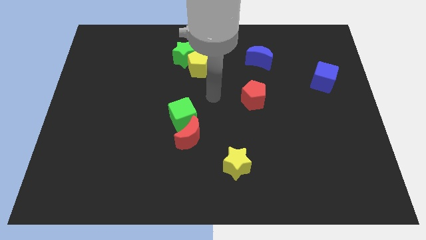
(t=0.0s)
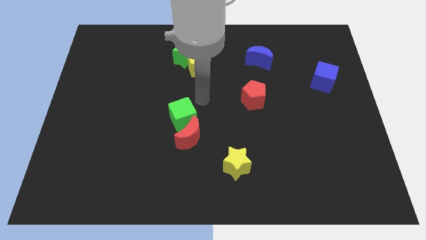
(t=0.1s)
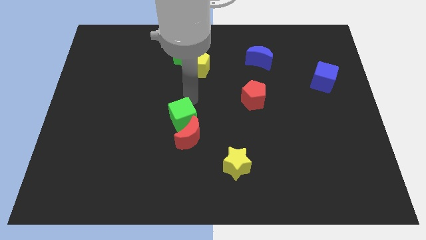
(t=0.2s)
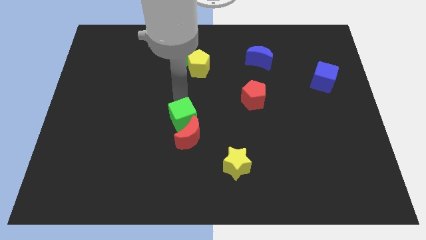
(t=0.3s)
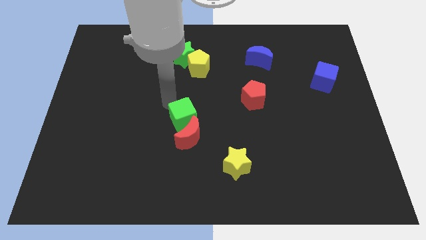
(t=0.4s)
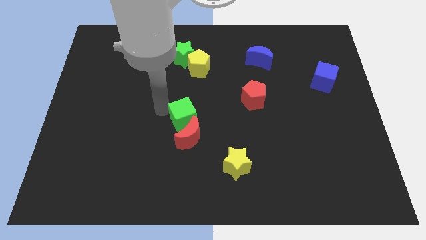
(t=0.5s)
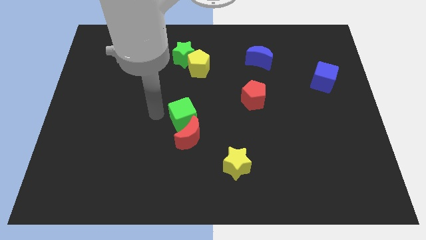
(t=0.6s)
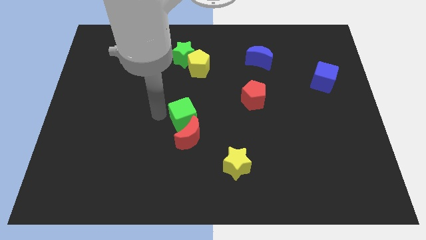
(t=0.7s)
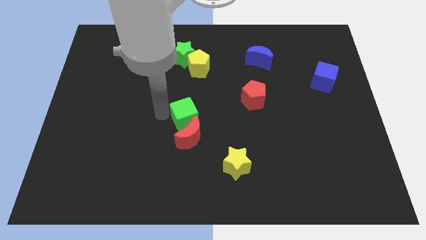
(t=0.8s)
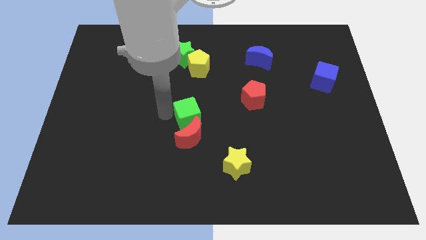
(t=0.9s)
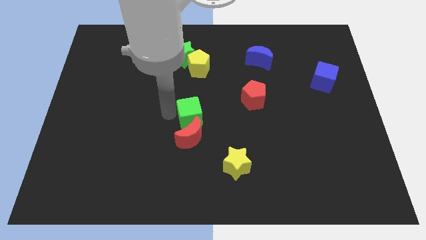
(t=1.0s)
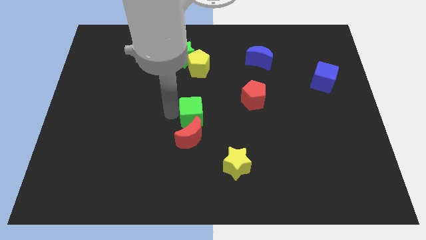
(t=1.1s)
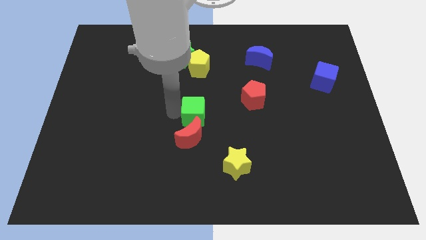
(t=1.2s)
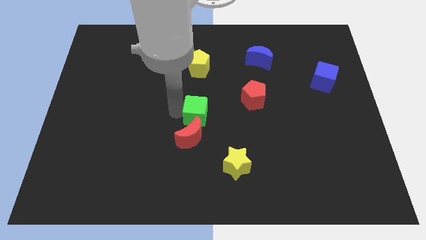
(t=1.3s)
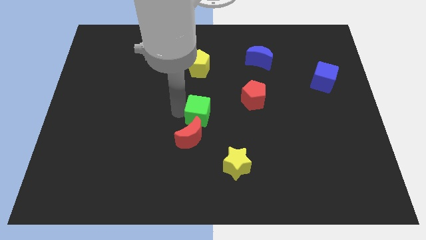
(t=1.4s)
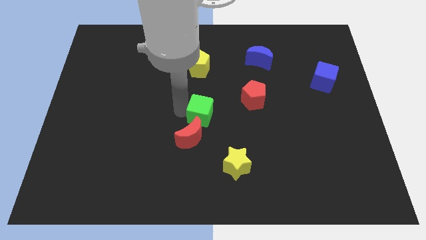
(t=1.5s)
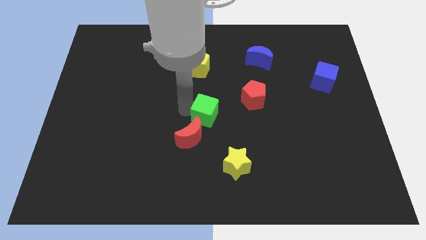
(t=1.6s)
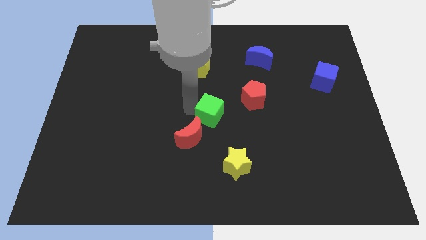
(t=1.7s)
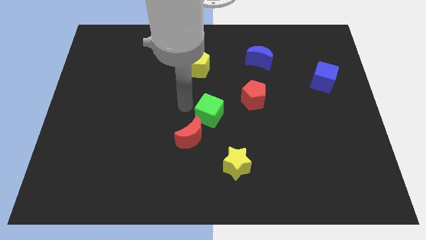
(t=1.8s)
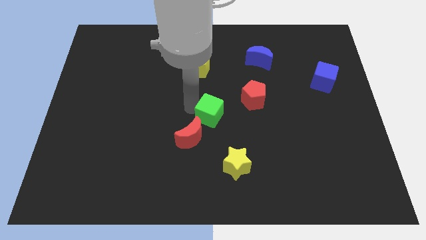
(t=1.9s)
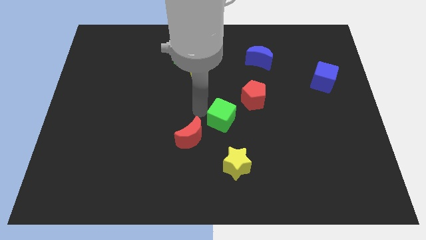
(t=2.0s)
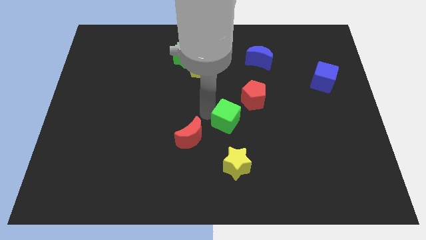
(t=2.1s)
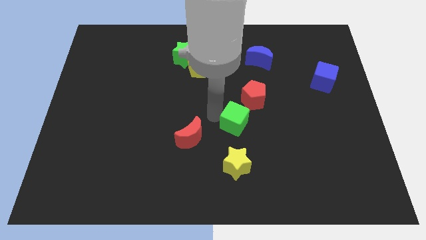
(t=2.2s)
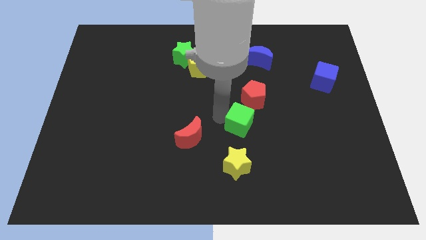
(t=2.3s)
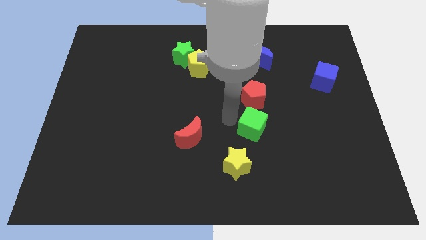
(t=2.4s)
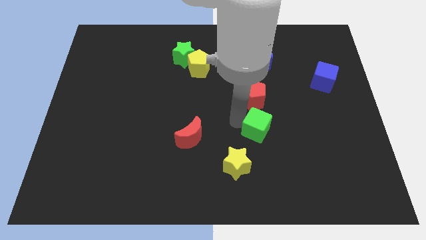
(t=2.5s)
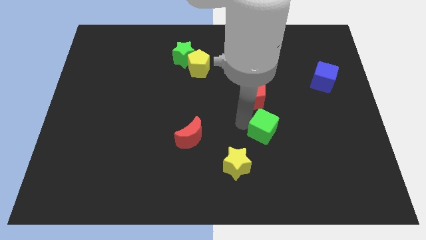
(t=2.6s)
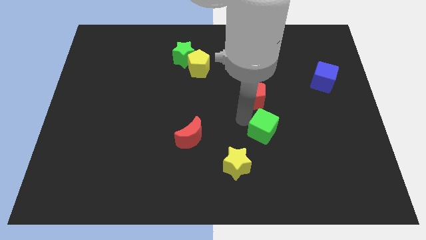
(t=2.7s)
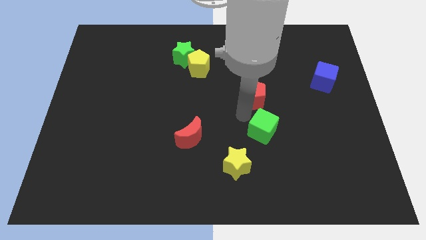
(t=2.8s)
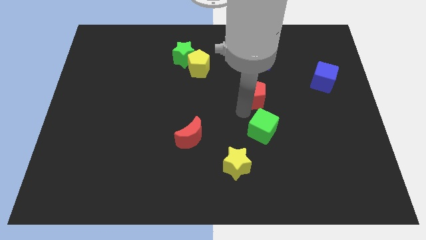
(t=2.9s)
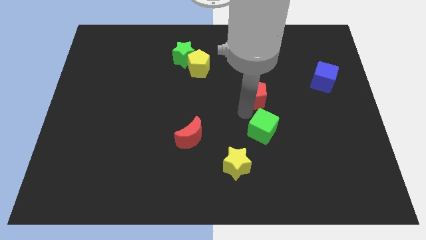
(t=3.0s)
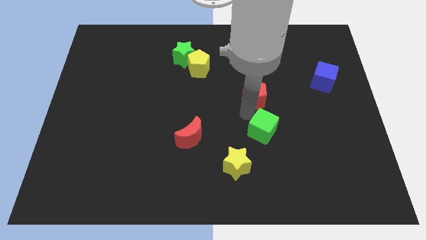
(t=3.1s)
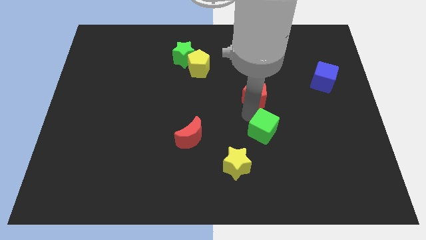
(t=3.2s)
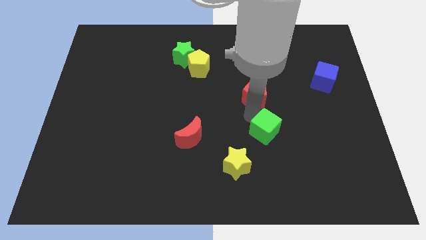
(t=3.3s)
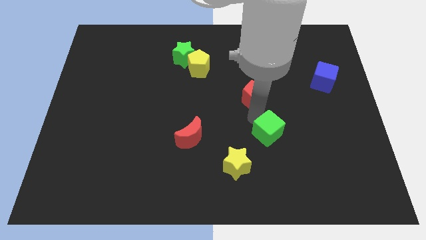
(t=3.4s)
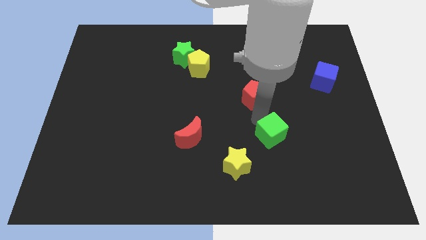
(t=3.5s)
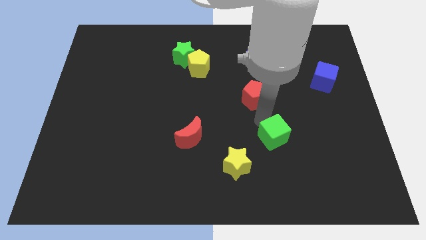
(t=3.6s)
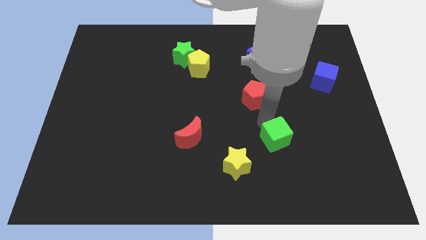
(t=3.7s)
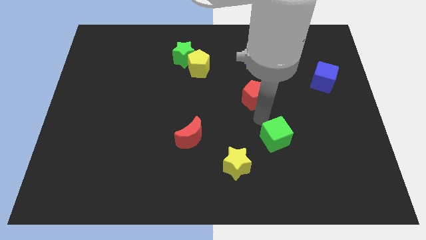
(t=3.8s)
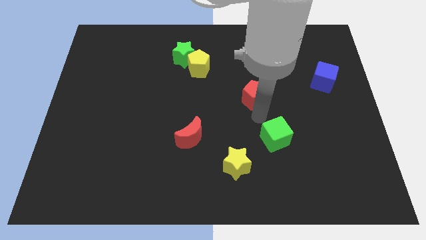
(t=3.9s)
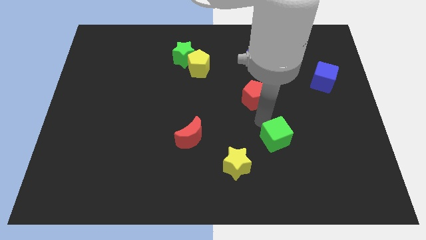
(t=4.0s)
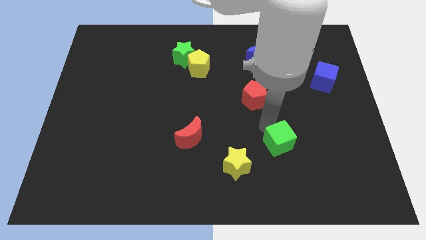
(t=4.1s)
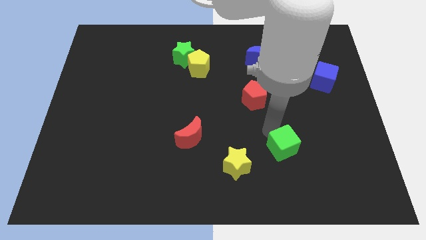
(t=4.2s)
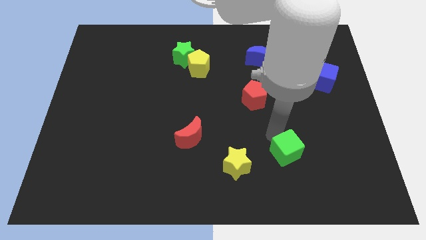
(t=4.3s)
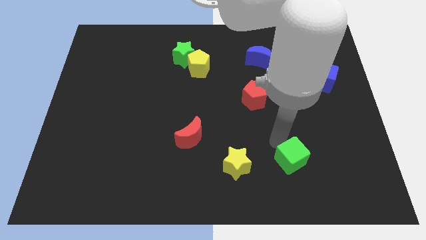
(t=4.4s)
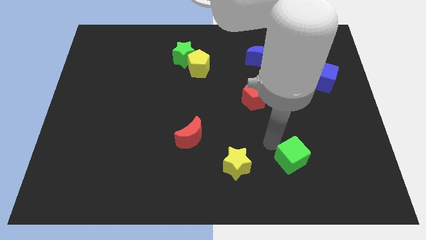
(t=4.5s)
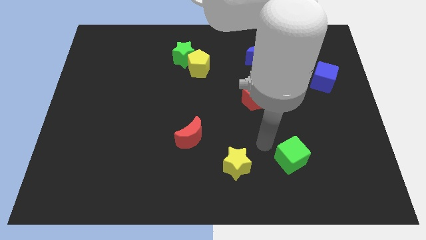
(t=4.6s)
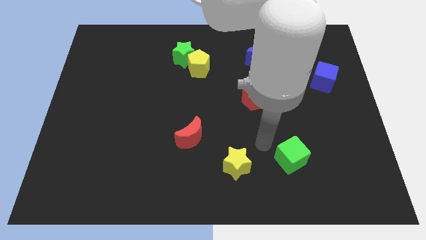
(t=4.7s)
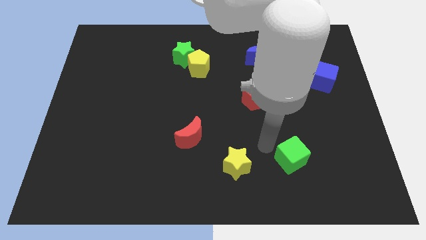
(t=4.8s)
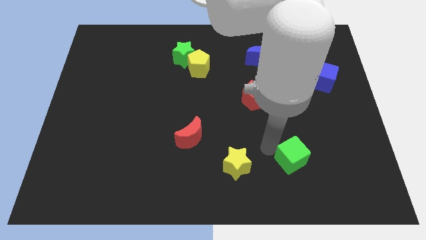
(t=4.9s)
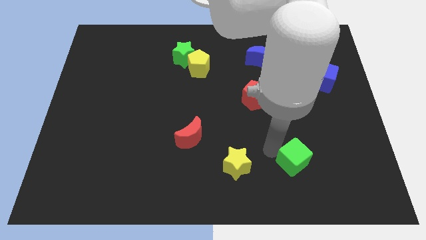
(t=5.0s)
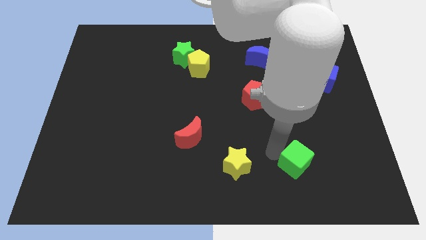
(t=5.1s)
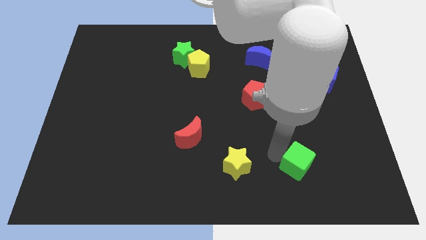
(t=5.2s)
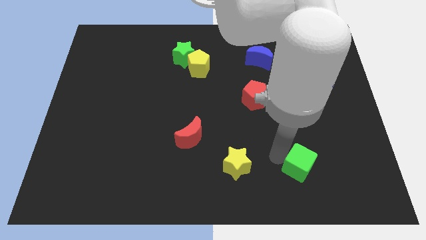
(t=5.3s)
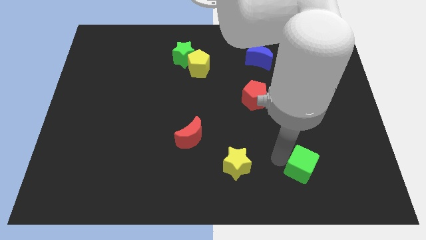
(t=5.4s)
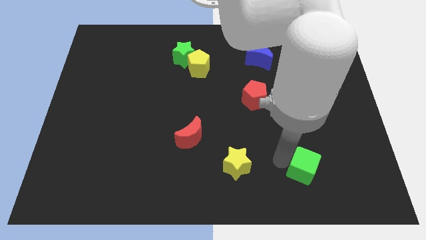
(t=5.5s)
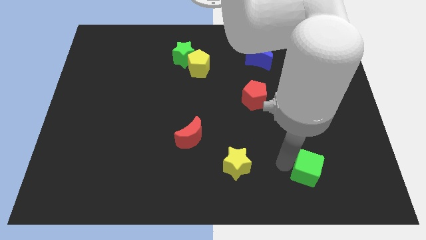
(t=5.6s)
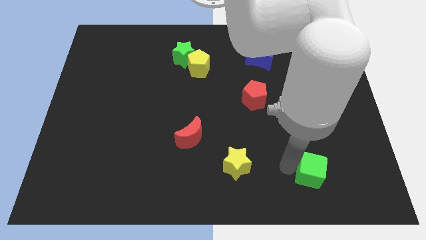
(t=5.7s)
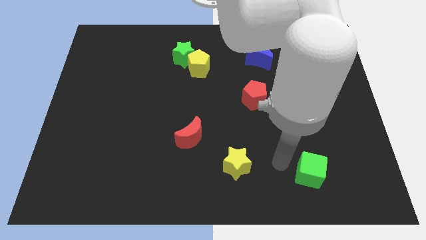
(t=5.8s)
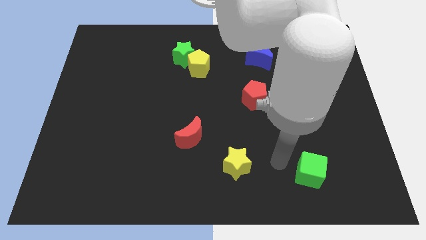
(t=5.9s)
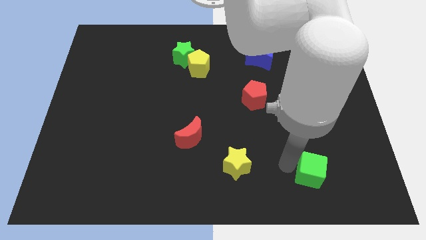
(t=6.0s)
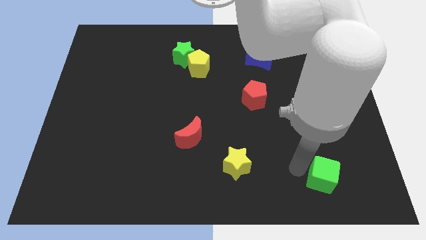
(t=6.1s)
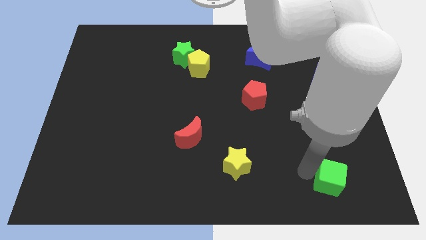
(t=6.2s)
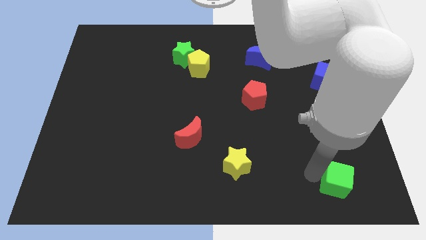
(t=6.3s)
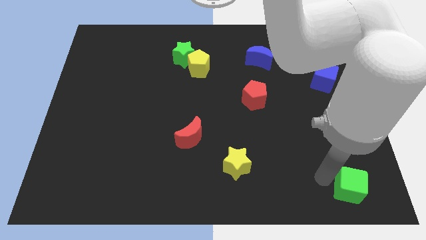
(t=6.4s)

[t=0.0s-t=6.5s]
put the green cube to the bottom right
